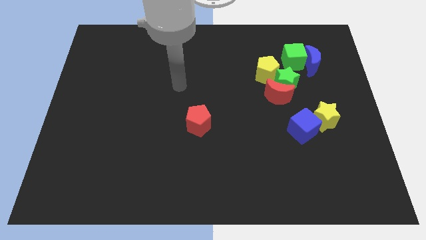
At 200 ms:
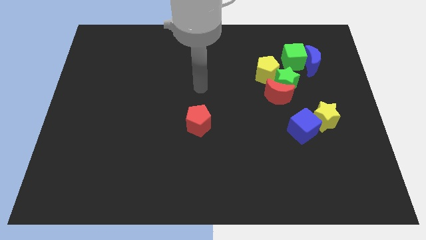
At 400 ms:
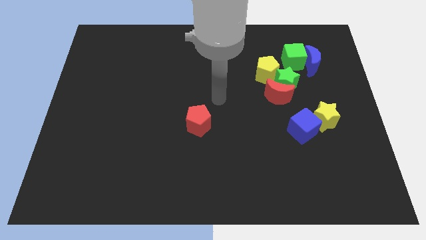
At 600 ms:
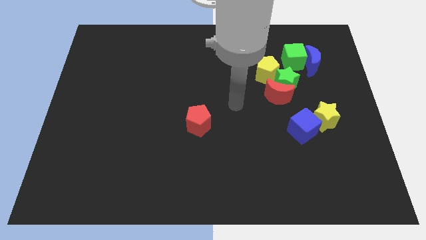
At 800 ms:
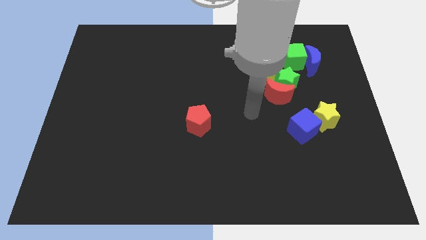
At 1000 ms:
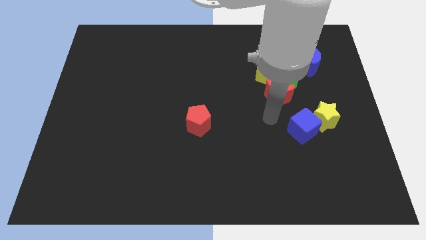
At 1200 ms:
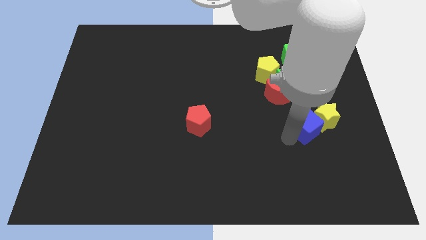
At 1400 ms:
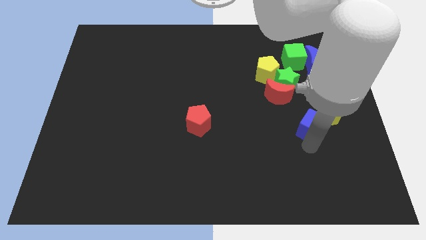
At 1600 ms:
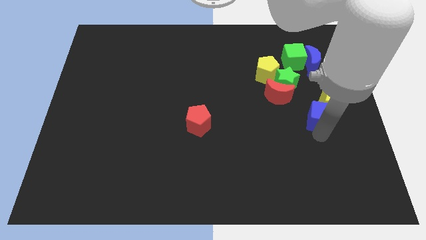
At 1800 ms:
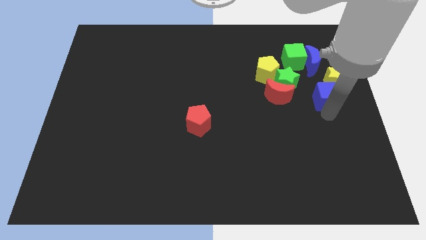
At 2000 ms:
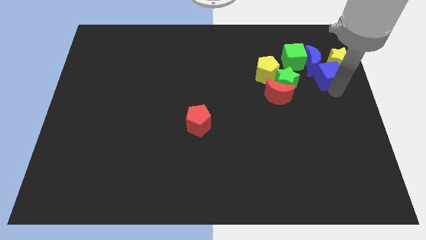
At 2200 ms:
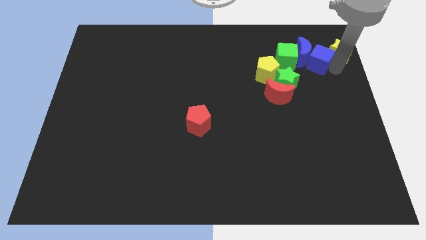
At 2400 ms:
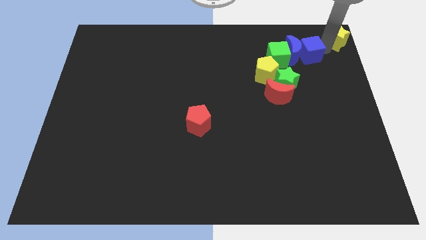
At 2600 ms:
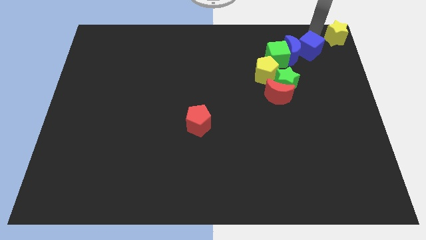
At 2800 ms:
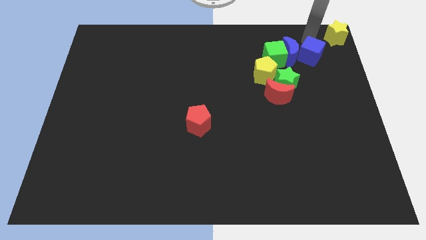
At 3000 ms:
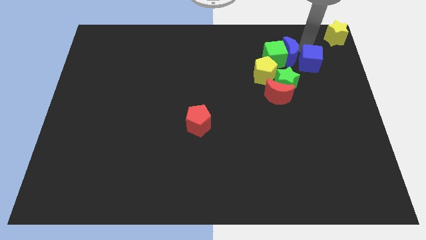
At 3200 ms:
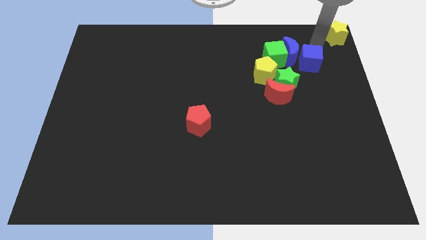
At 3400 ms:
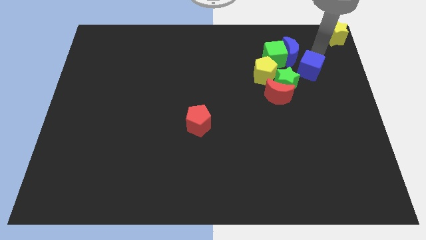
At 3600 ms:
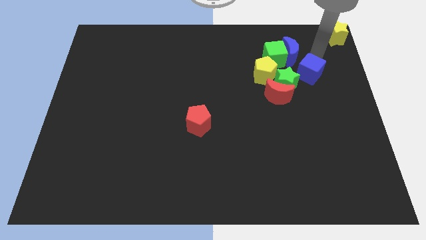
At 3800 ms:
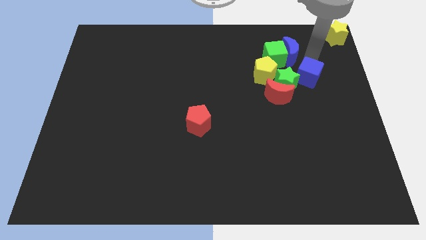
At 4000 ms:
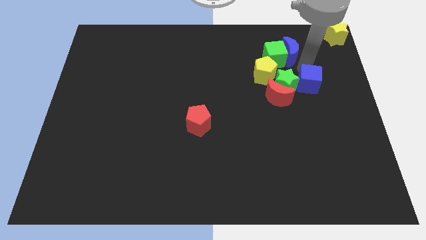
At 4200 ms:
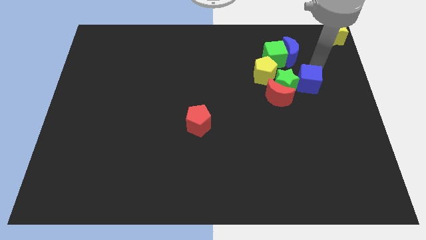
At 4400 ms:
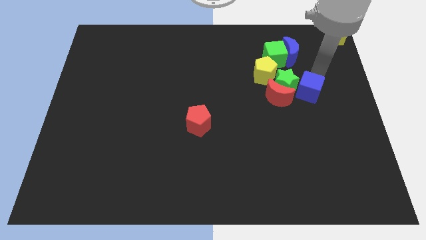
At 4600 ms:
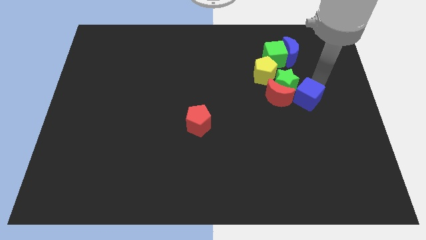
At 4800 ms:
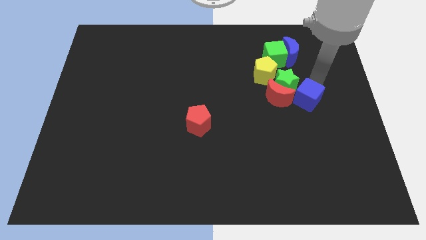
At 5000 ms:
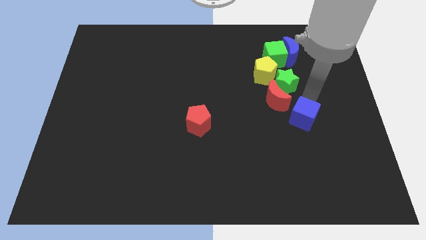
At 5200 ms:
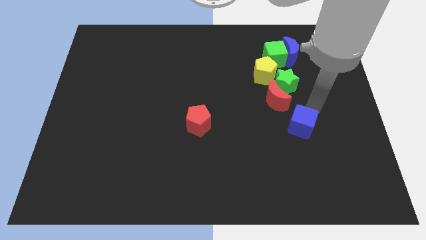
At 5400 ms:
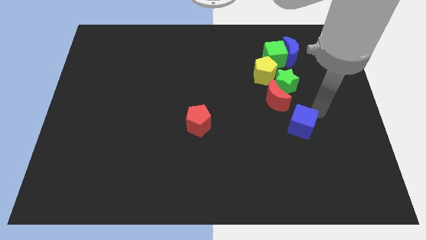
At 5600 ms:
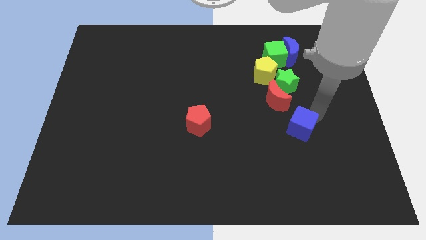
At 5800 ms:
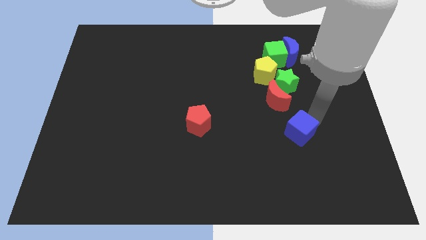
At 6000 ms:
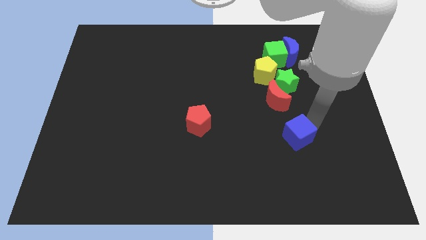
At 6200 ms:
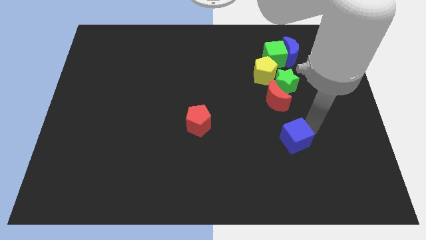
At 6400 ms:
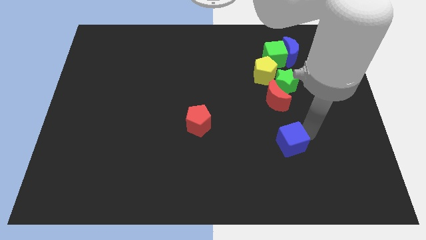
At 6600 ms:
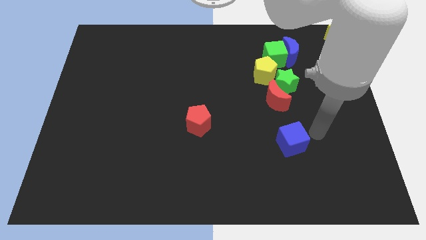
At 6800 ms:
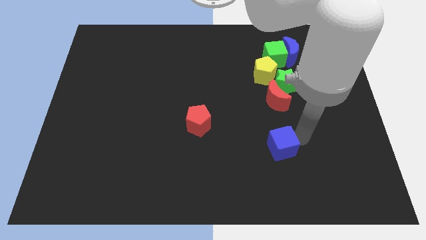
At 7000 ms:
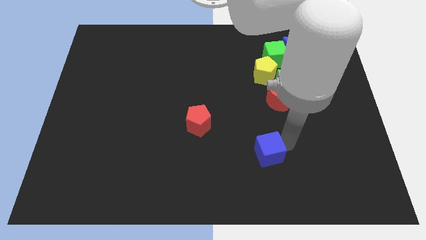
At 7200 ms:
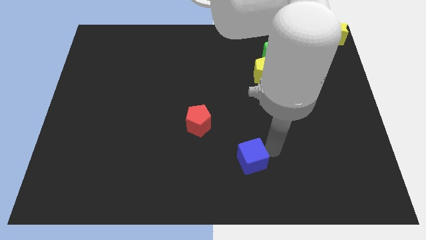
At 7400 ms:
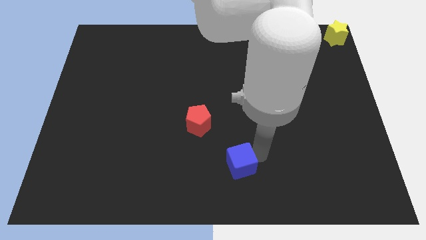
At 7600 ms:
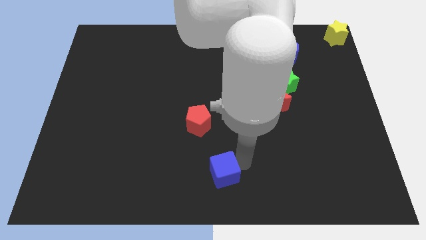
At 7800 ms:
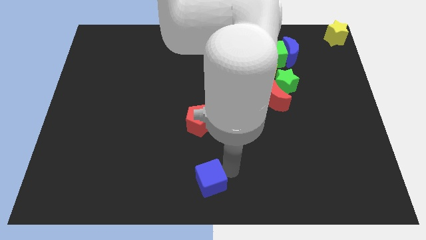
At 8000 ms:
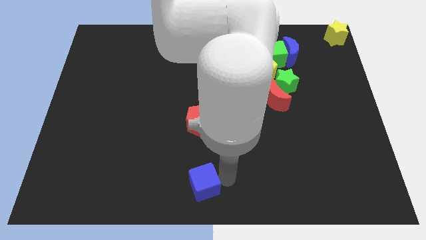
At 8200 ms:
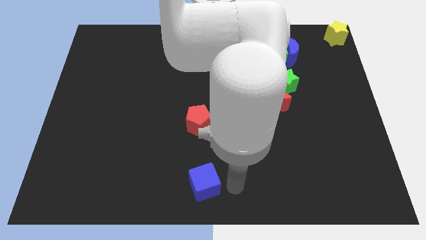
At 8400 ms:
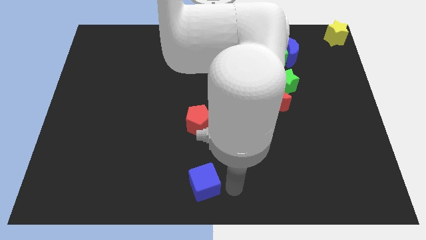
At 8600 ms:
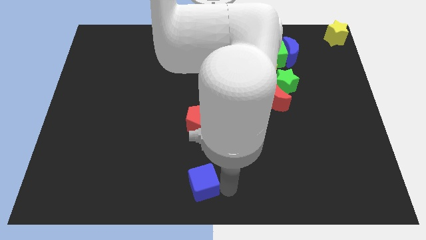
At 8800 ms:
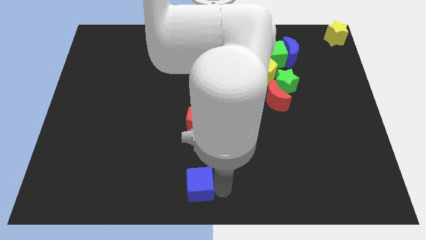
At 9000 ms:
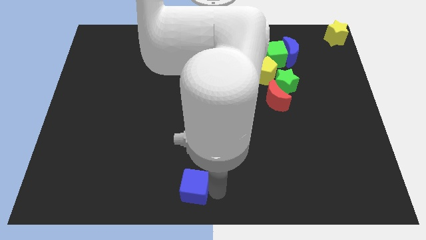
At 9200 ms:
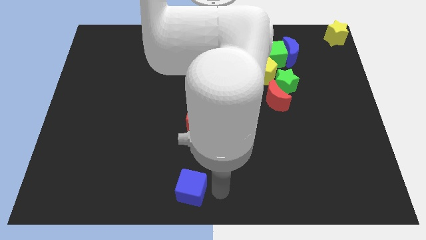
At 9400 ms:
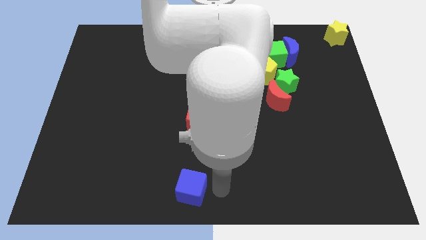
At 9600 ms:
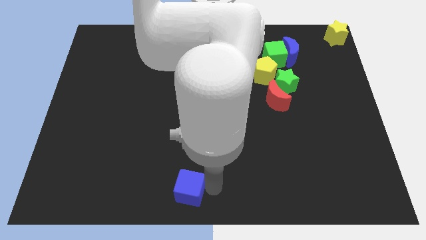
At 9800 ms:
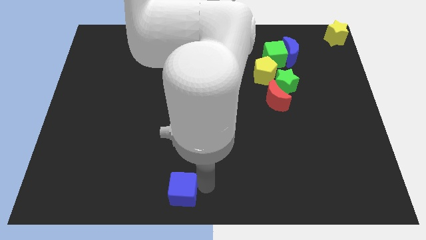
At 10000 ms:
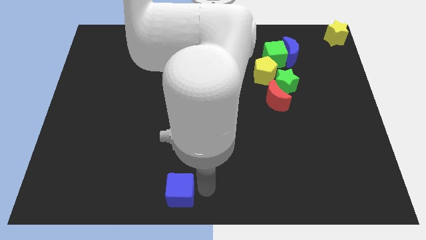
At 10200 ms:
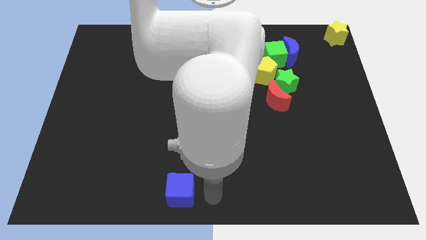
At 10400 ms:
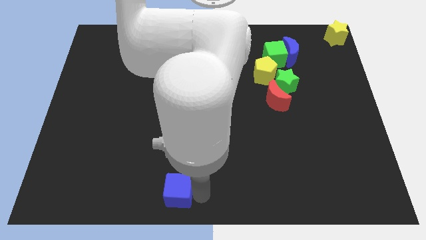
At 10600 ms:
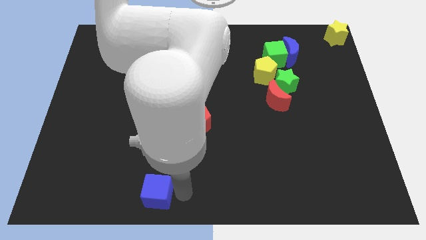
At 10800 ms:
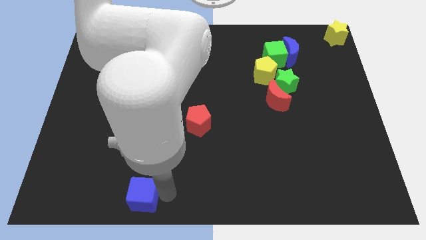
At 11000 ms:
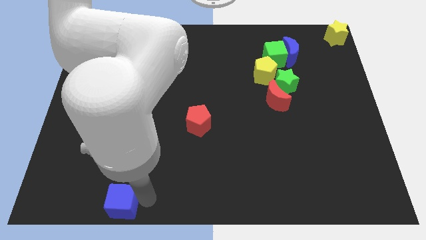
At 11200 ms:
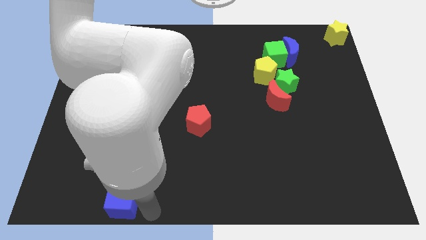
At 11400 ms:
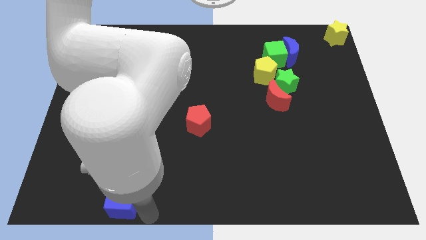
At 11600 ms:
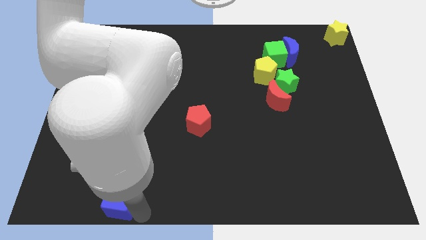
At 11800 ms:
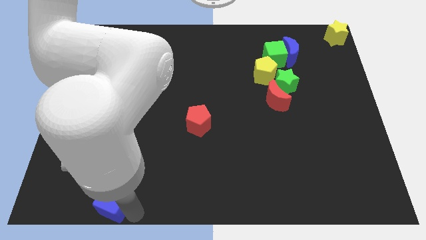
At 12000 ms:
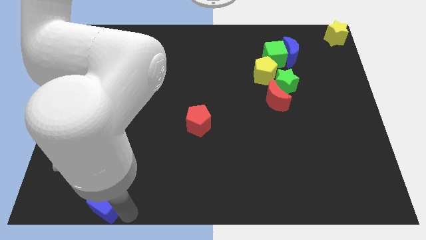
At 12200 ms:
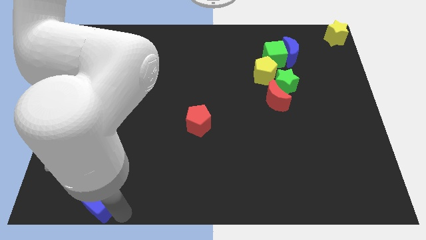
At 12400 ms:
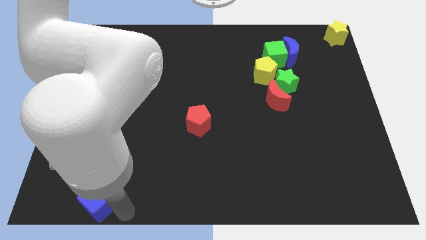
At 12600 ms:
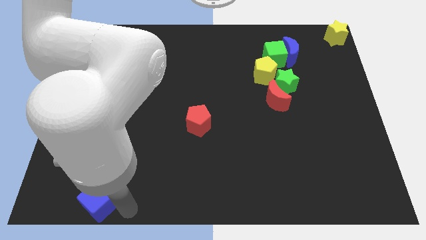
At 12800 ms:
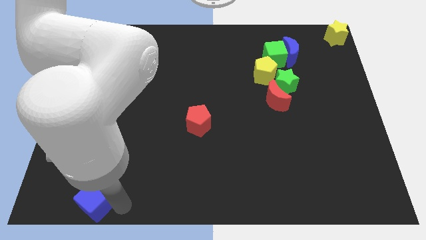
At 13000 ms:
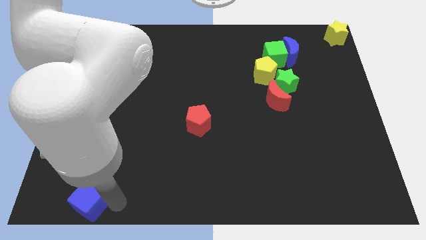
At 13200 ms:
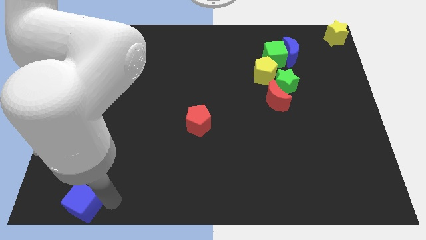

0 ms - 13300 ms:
slide the blue cube to the bottom left corner

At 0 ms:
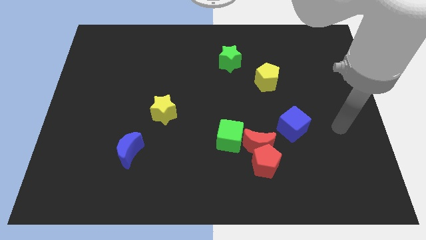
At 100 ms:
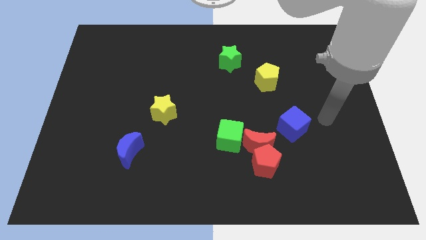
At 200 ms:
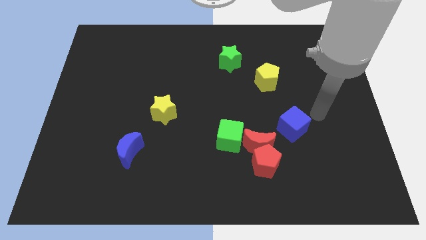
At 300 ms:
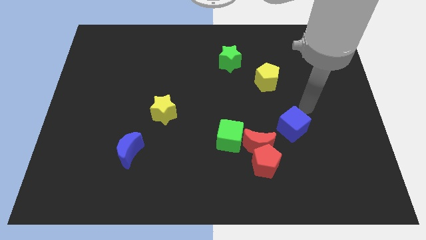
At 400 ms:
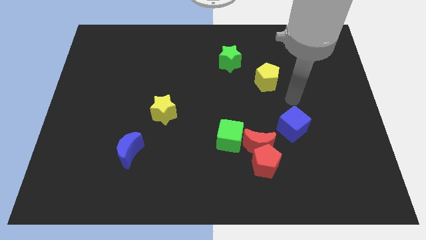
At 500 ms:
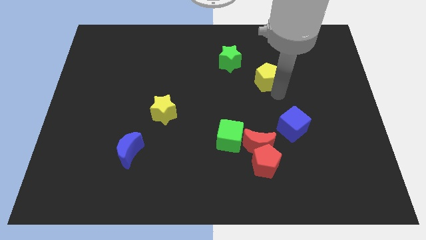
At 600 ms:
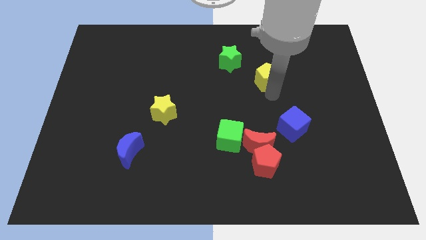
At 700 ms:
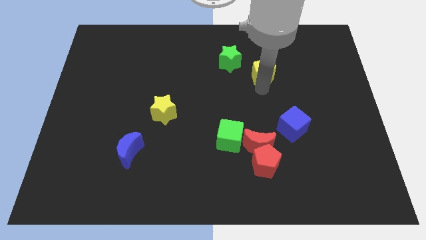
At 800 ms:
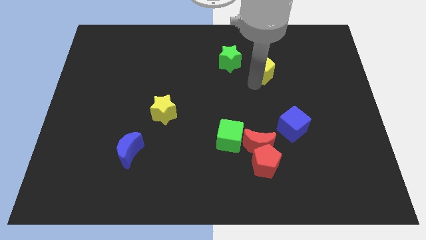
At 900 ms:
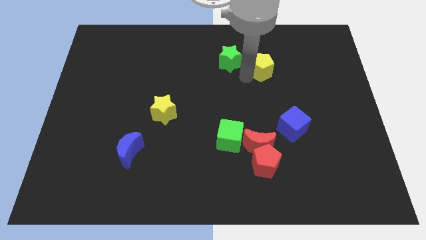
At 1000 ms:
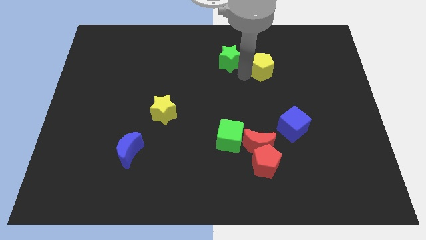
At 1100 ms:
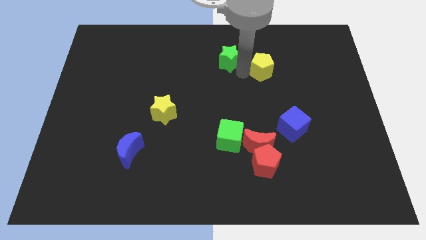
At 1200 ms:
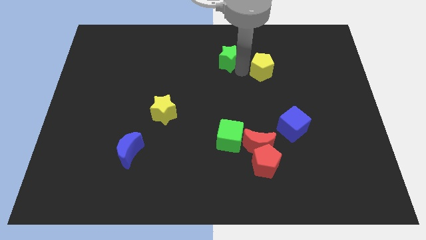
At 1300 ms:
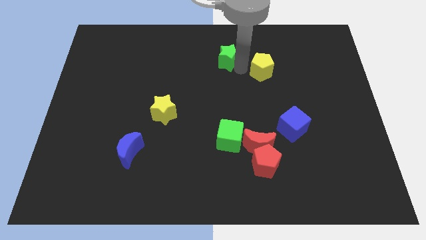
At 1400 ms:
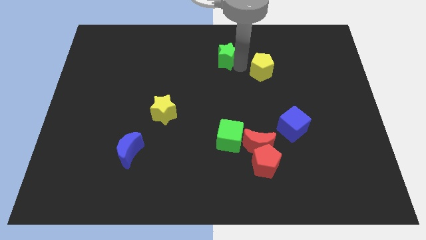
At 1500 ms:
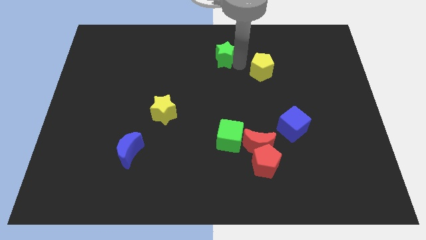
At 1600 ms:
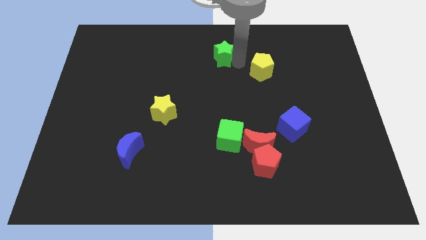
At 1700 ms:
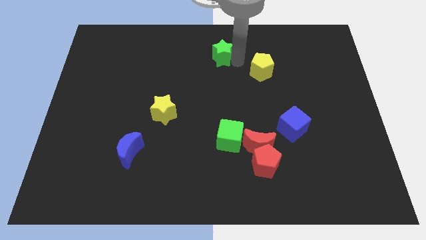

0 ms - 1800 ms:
slide the green star to the top
